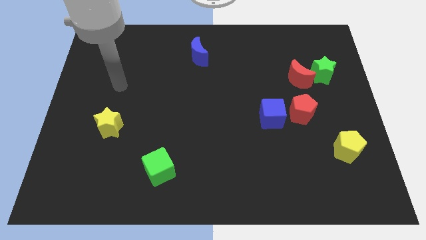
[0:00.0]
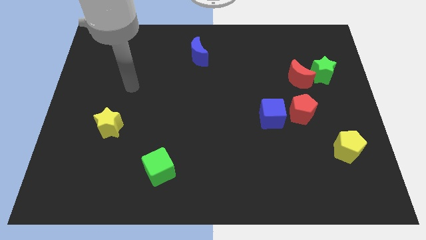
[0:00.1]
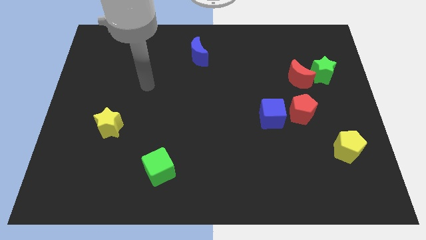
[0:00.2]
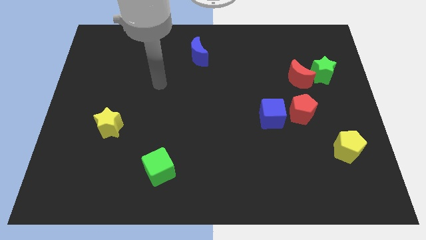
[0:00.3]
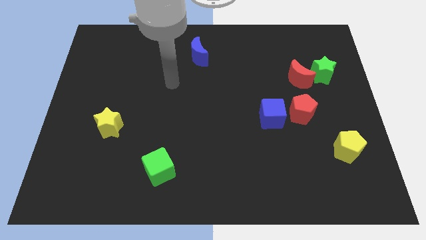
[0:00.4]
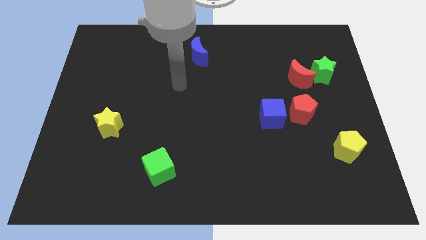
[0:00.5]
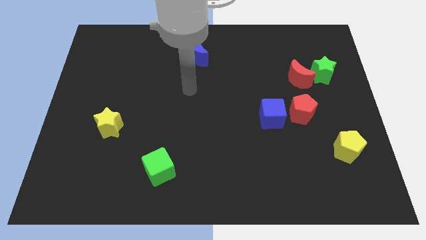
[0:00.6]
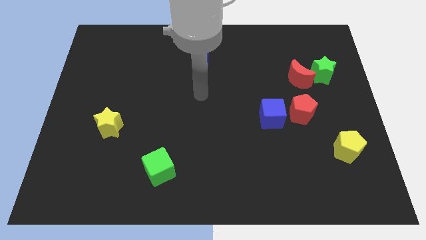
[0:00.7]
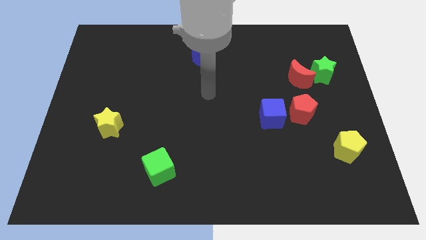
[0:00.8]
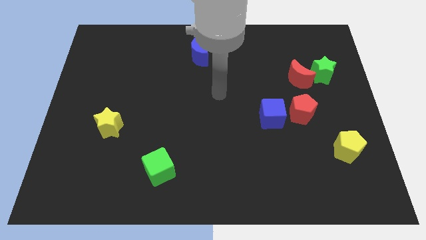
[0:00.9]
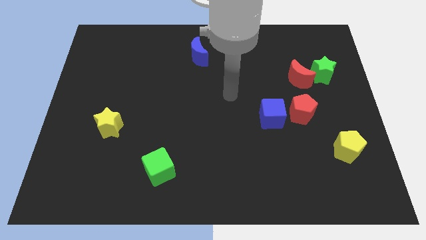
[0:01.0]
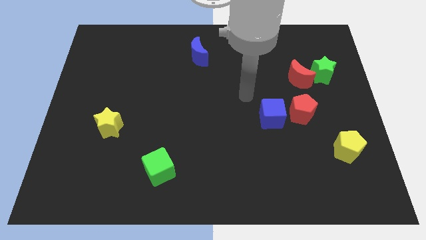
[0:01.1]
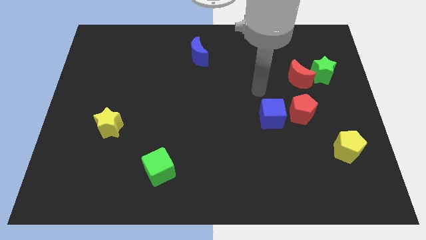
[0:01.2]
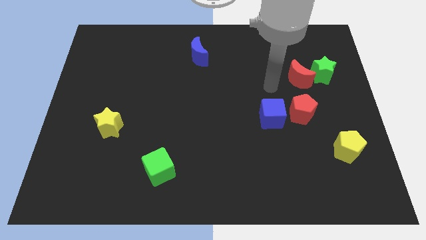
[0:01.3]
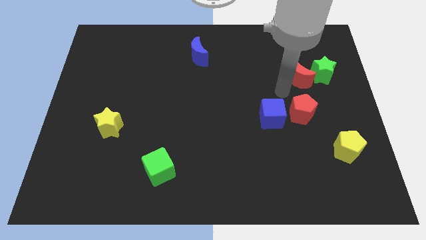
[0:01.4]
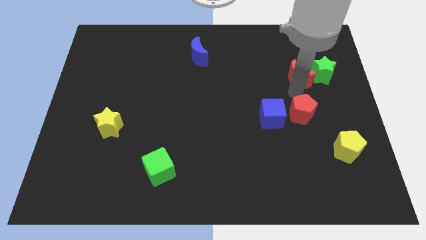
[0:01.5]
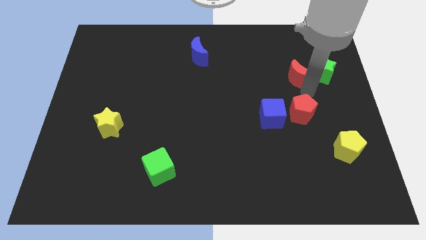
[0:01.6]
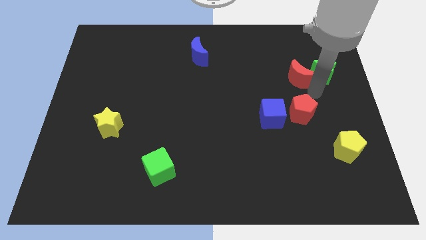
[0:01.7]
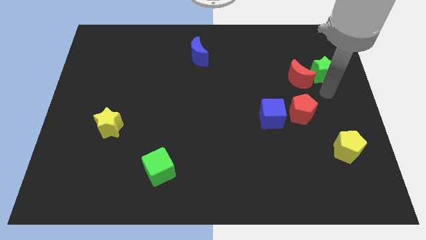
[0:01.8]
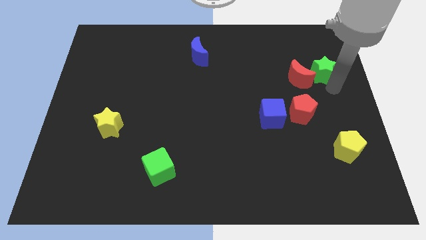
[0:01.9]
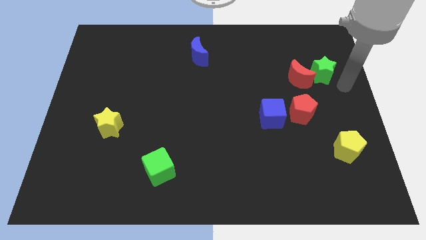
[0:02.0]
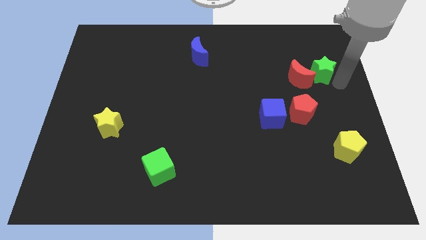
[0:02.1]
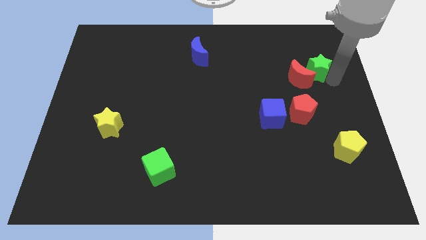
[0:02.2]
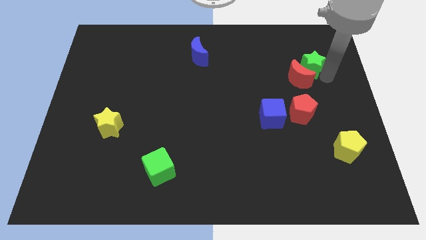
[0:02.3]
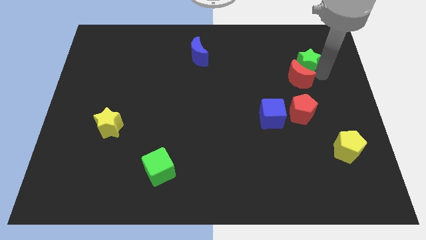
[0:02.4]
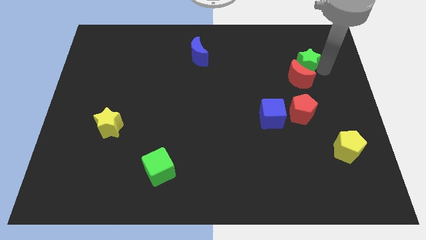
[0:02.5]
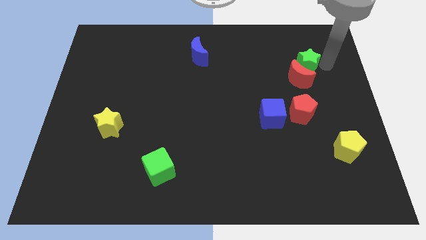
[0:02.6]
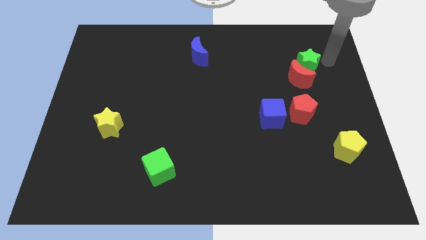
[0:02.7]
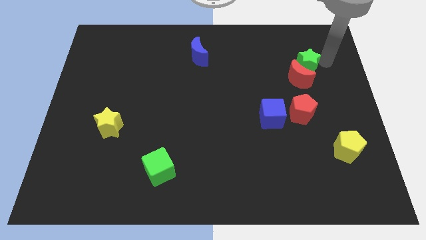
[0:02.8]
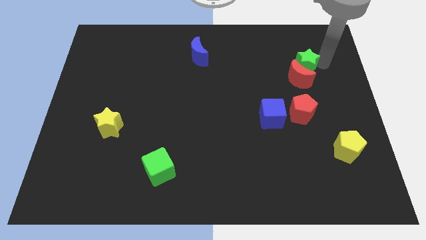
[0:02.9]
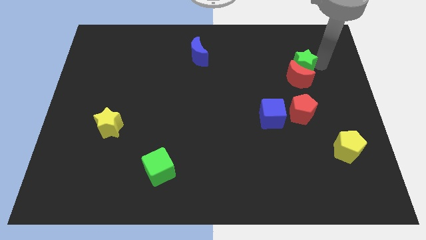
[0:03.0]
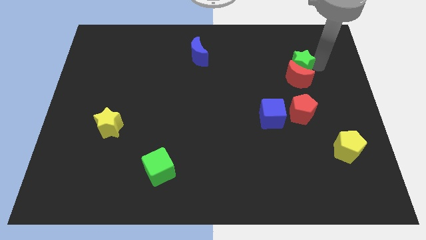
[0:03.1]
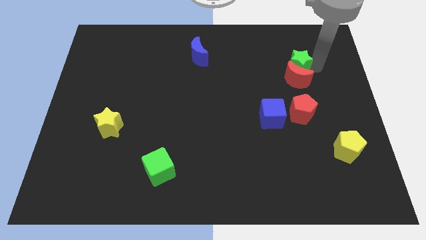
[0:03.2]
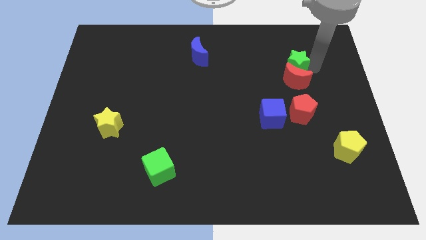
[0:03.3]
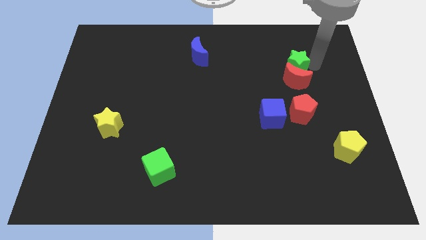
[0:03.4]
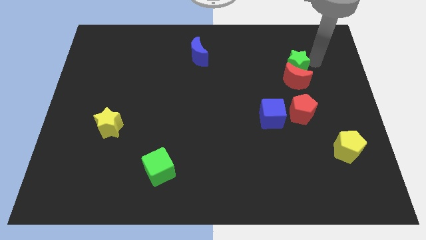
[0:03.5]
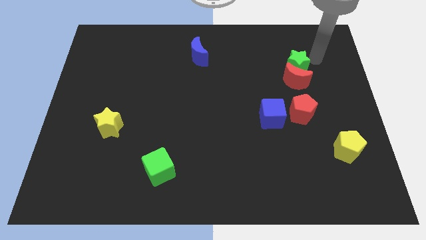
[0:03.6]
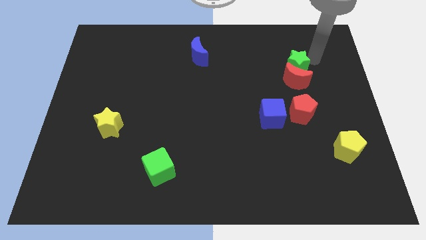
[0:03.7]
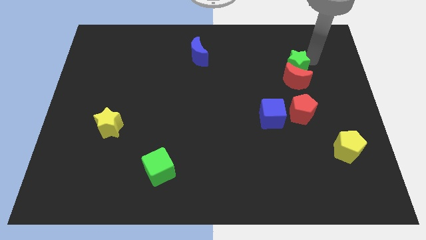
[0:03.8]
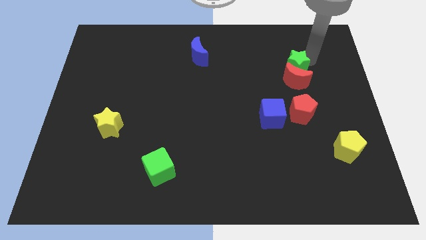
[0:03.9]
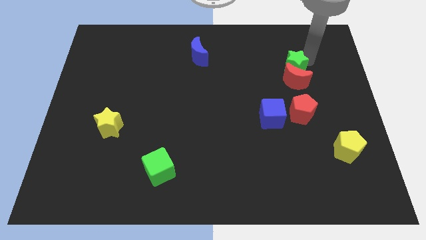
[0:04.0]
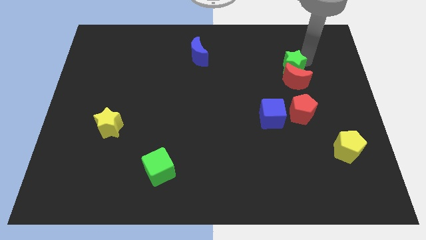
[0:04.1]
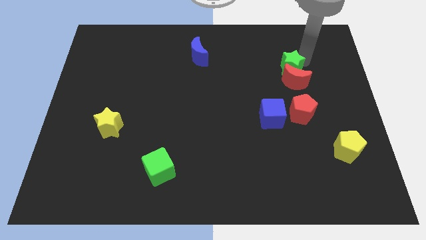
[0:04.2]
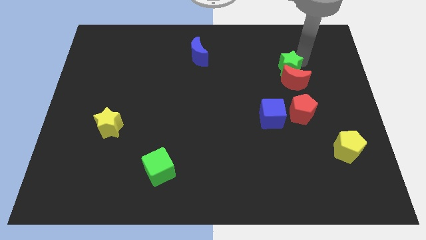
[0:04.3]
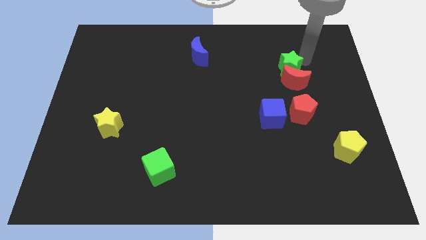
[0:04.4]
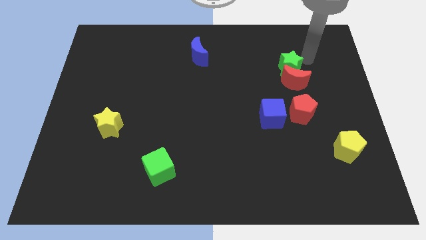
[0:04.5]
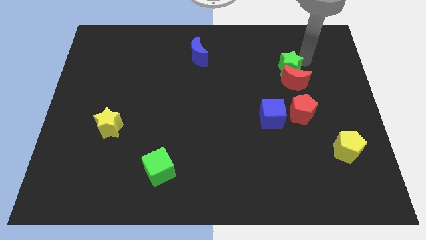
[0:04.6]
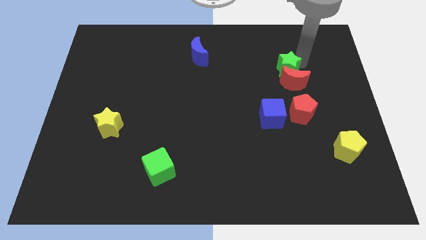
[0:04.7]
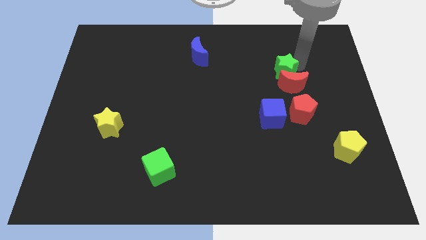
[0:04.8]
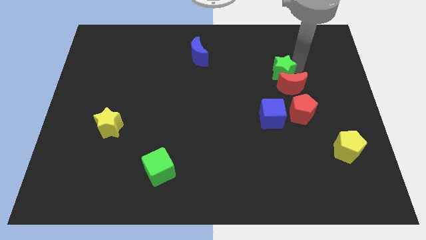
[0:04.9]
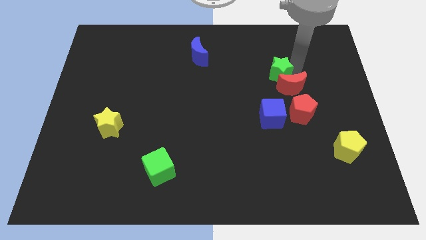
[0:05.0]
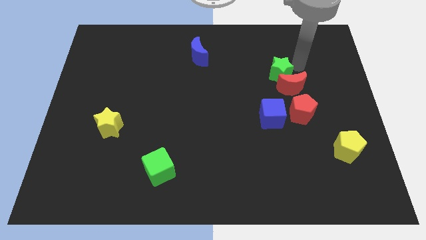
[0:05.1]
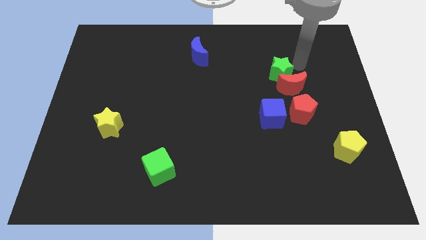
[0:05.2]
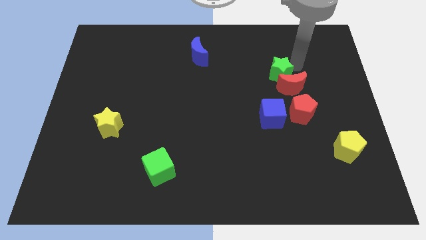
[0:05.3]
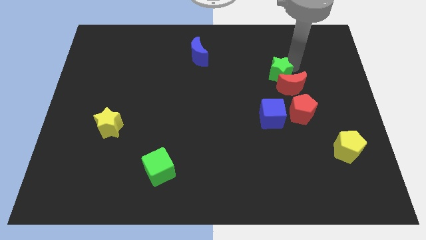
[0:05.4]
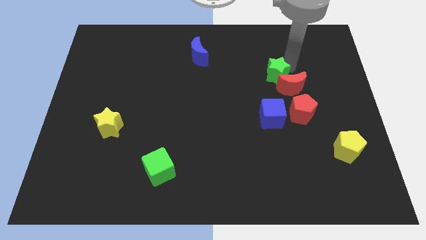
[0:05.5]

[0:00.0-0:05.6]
put the green star to the left side of the red moon

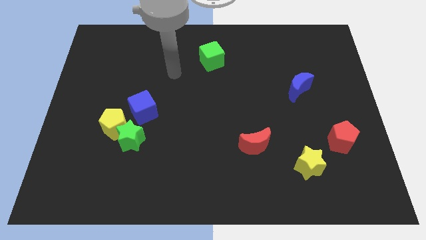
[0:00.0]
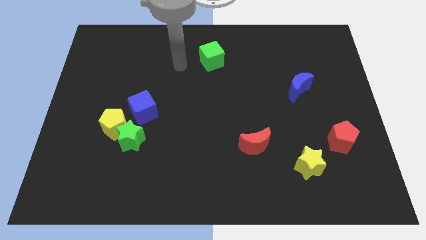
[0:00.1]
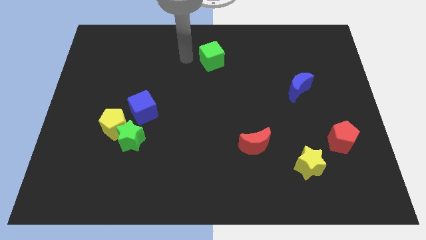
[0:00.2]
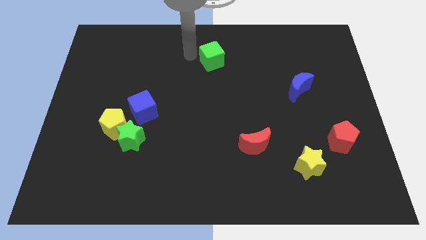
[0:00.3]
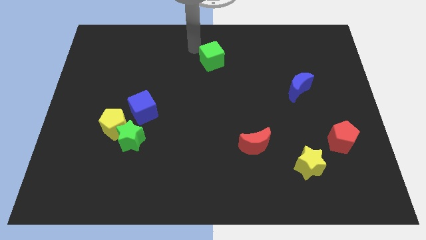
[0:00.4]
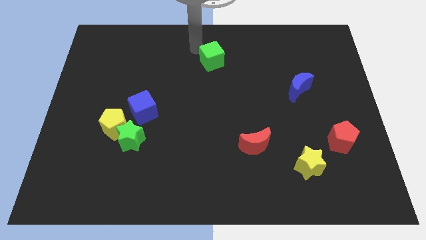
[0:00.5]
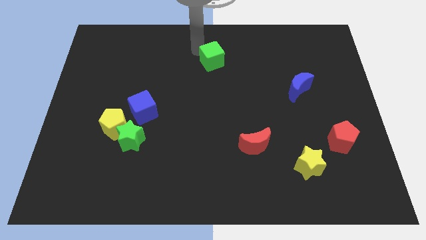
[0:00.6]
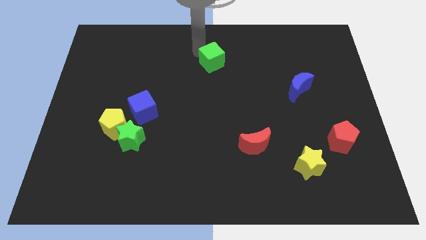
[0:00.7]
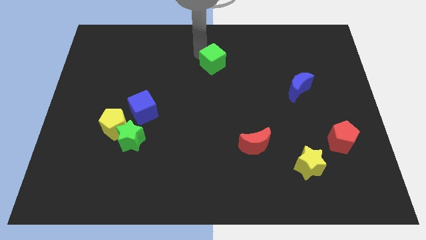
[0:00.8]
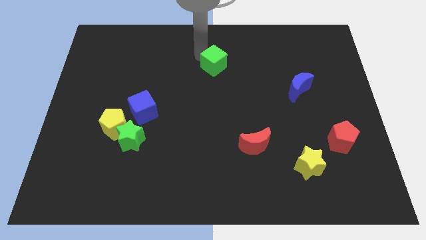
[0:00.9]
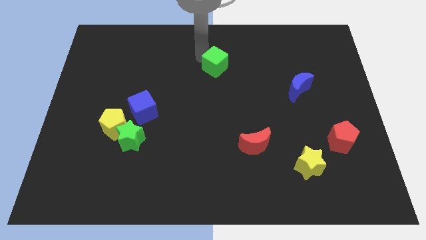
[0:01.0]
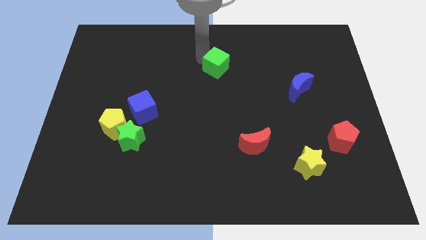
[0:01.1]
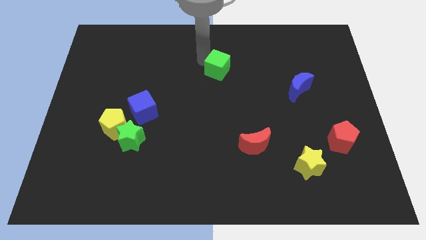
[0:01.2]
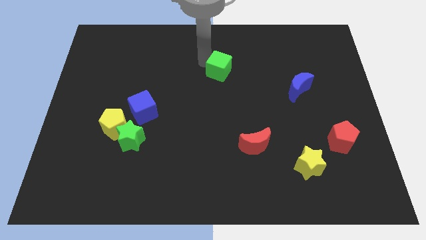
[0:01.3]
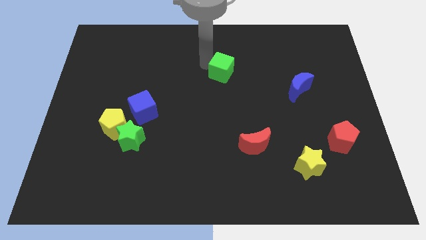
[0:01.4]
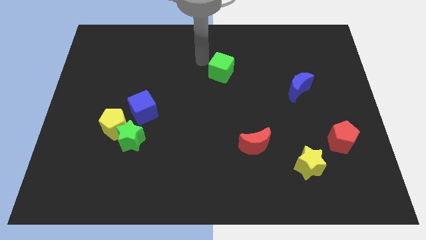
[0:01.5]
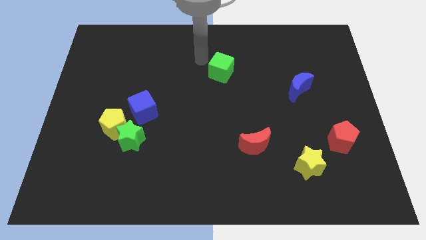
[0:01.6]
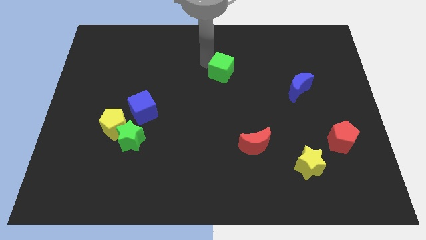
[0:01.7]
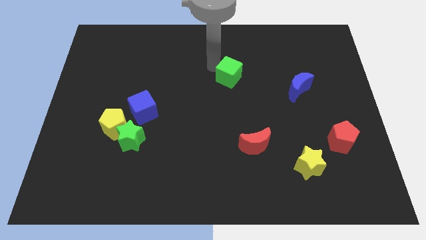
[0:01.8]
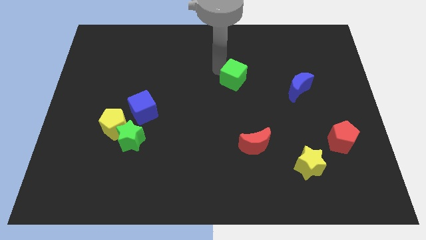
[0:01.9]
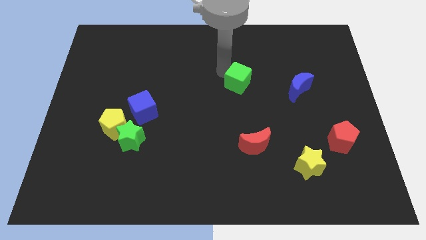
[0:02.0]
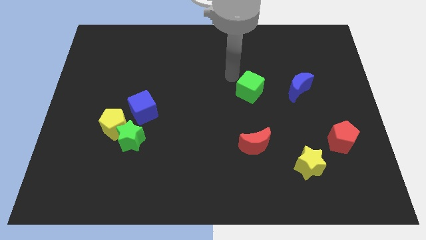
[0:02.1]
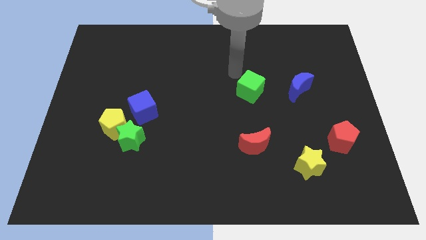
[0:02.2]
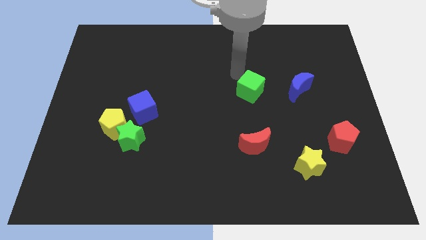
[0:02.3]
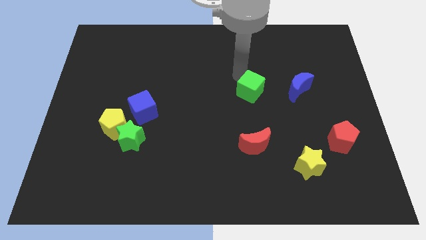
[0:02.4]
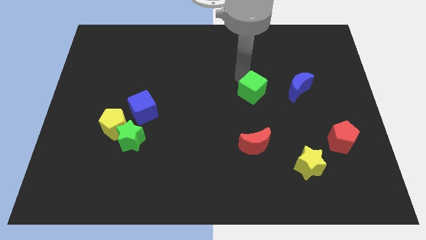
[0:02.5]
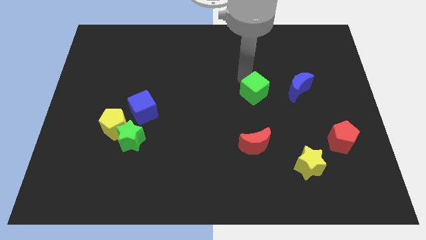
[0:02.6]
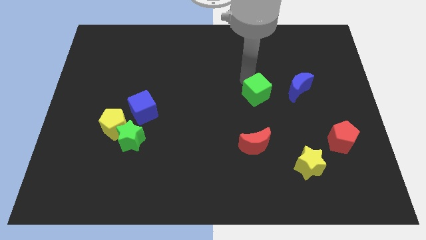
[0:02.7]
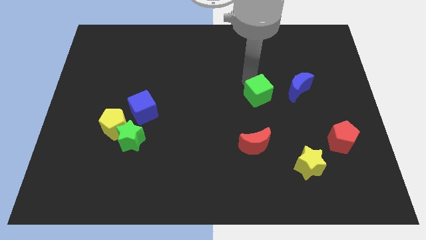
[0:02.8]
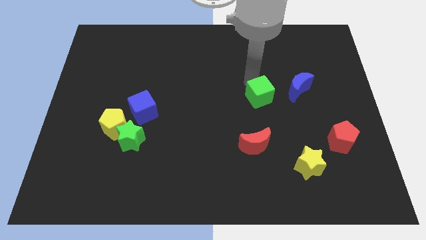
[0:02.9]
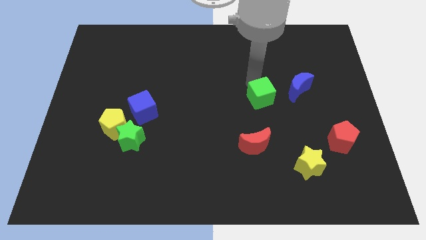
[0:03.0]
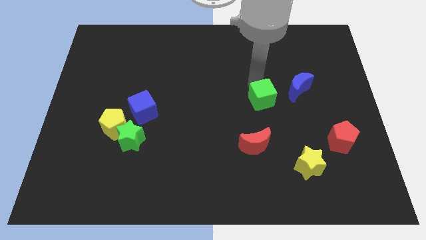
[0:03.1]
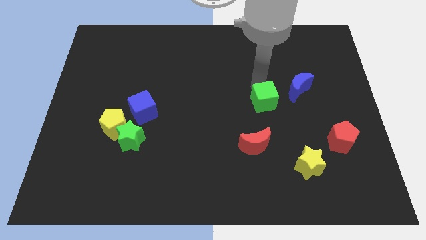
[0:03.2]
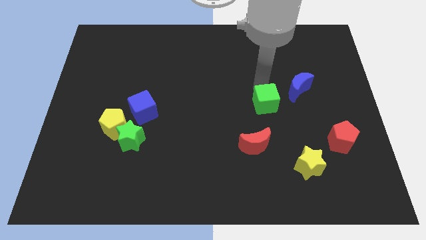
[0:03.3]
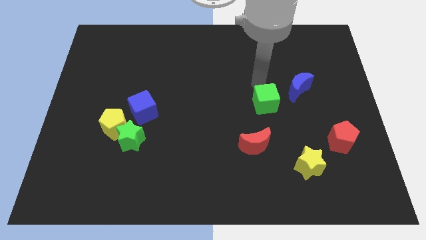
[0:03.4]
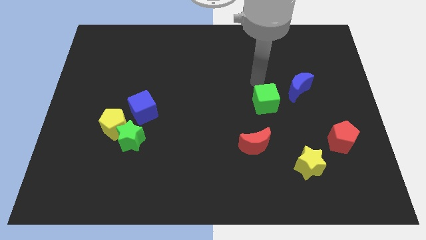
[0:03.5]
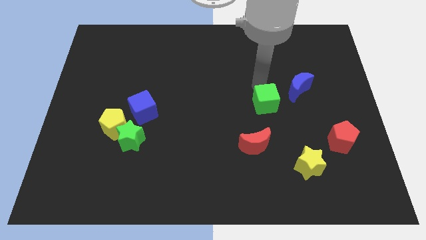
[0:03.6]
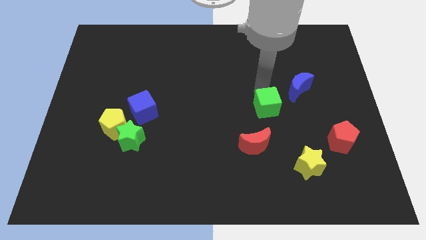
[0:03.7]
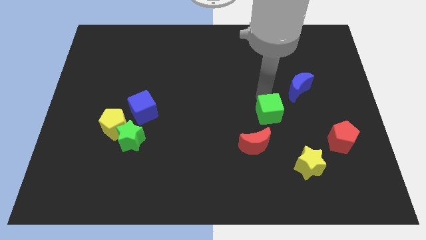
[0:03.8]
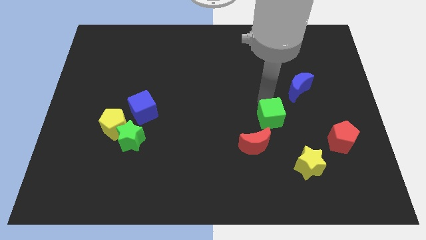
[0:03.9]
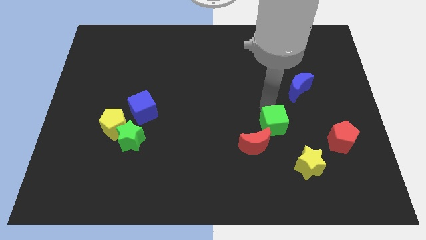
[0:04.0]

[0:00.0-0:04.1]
move the green cube to the top left of the yellow star
